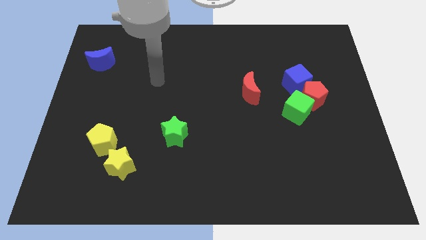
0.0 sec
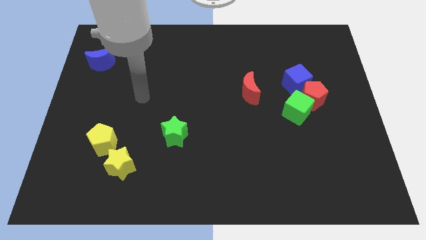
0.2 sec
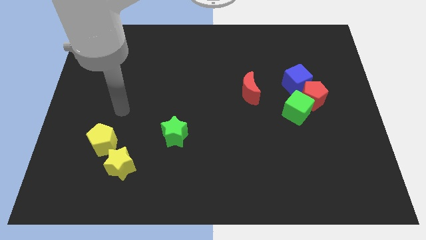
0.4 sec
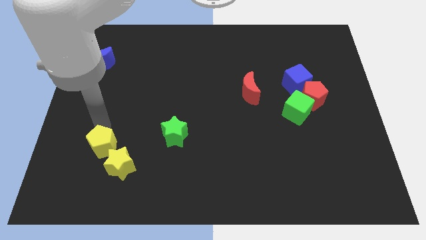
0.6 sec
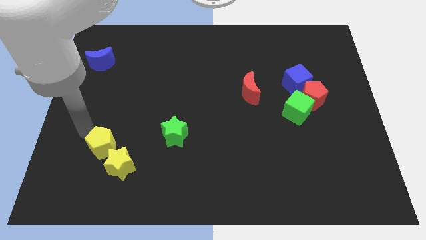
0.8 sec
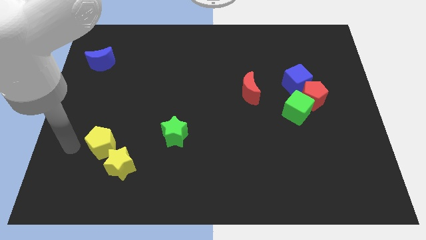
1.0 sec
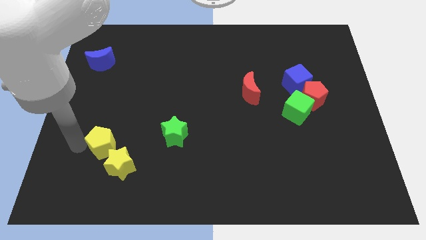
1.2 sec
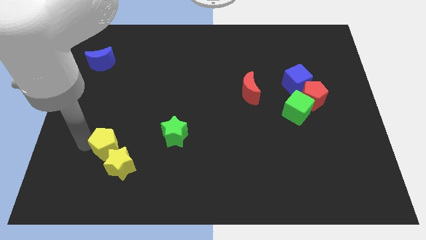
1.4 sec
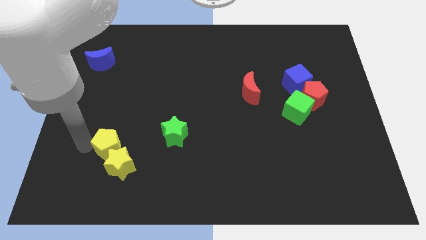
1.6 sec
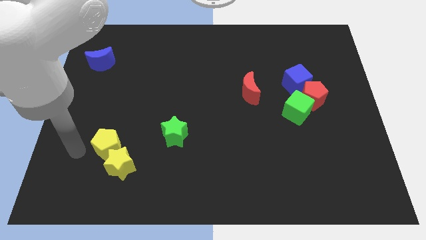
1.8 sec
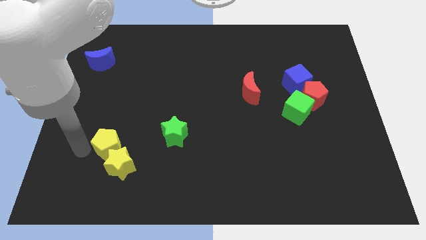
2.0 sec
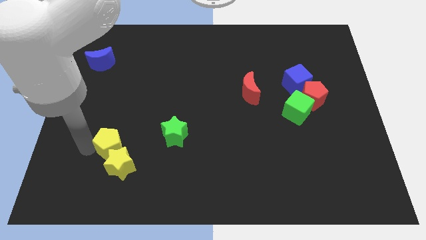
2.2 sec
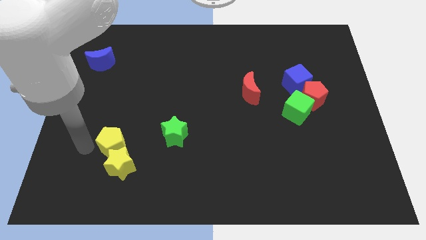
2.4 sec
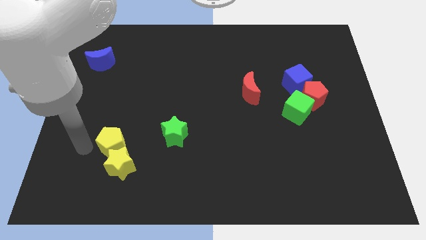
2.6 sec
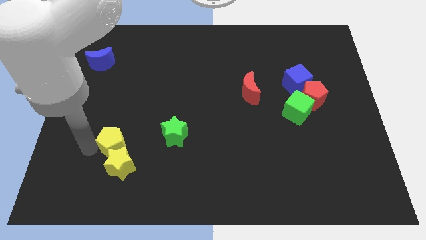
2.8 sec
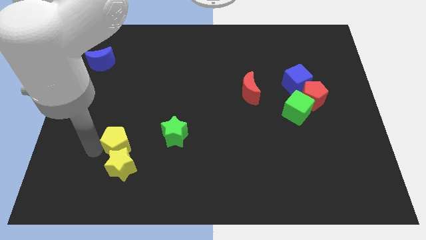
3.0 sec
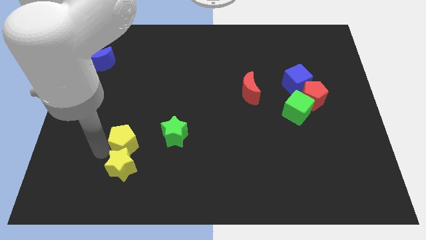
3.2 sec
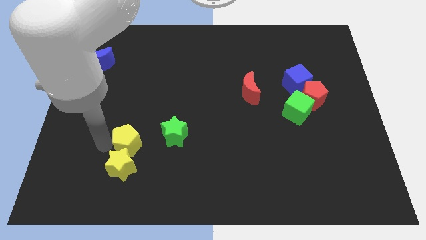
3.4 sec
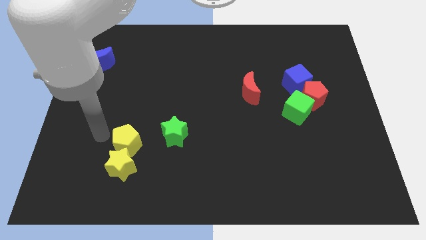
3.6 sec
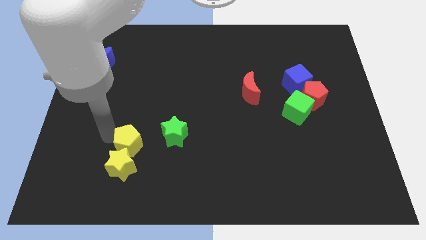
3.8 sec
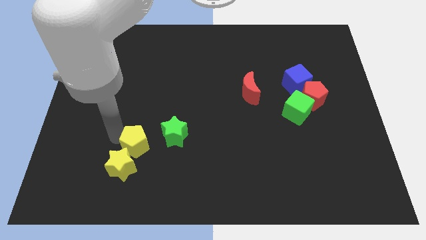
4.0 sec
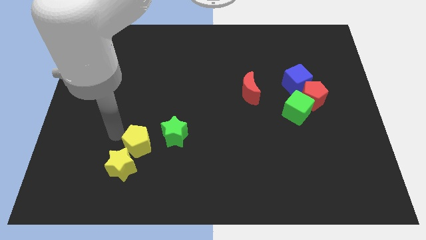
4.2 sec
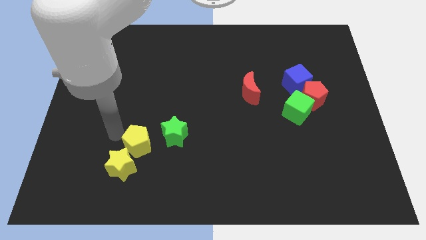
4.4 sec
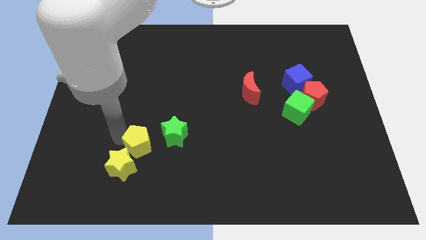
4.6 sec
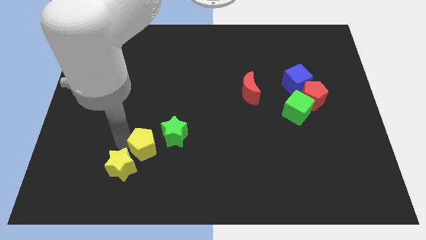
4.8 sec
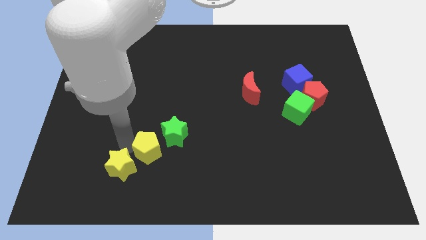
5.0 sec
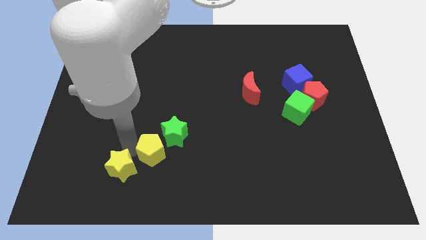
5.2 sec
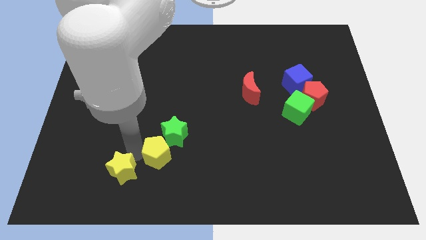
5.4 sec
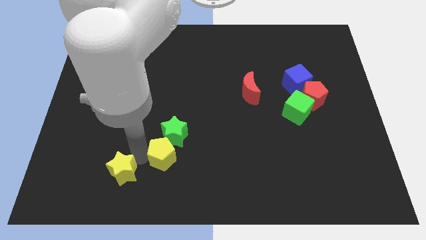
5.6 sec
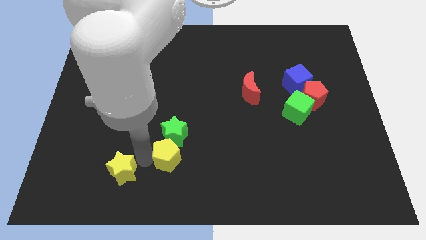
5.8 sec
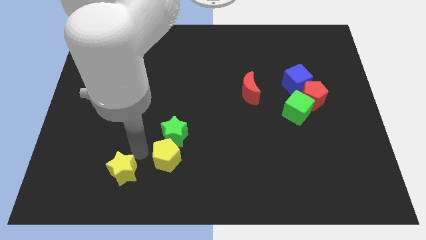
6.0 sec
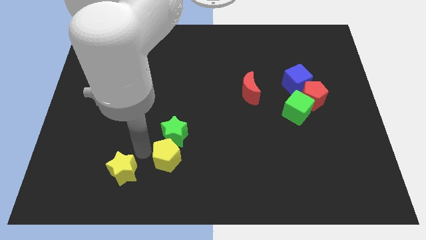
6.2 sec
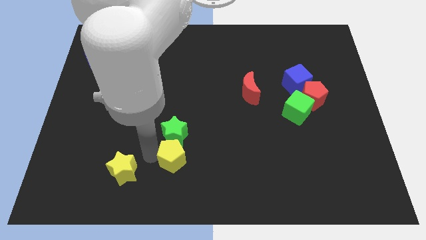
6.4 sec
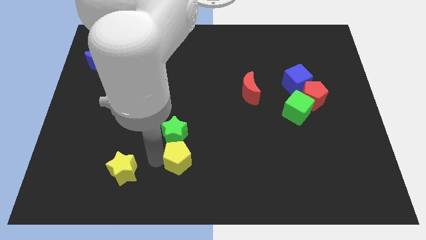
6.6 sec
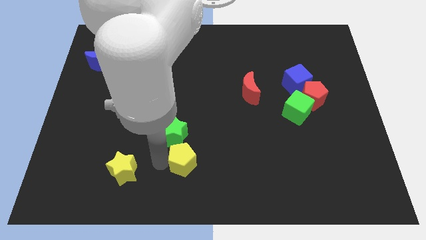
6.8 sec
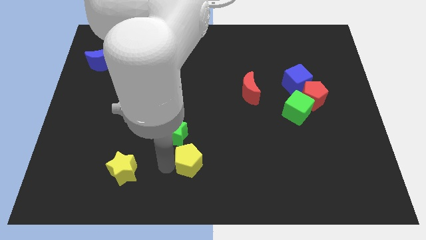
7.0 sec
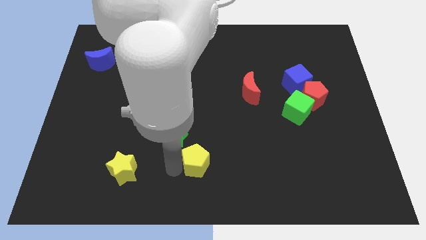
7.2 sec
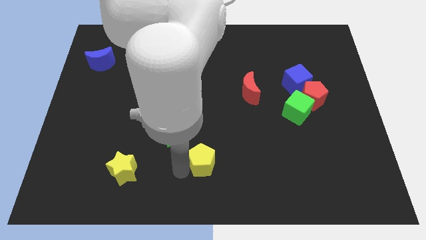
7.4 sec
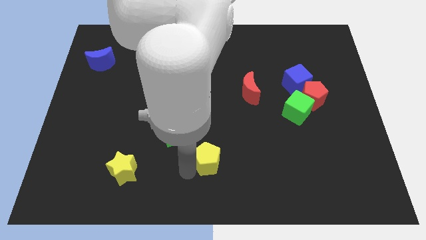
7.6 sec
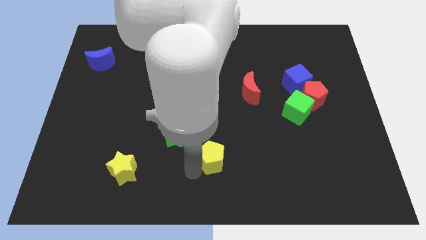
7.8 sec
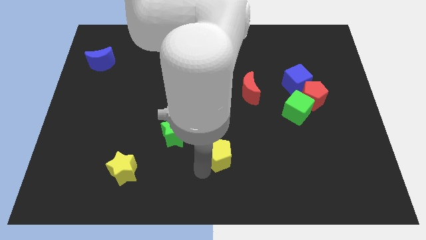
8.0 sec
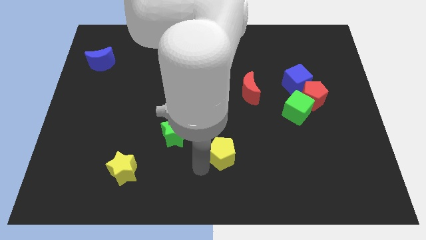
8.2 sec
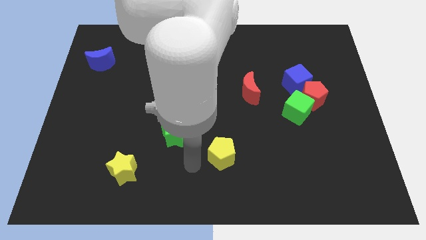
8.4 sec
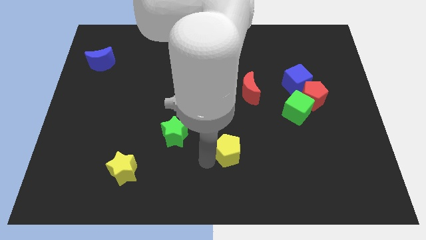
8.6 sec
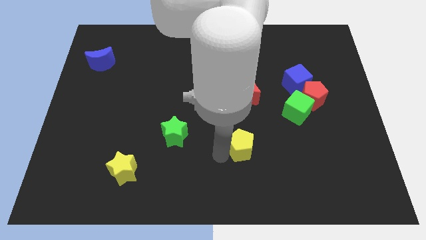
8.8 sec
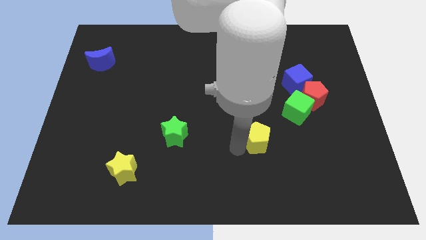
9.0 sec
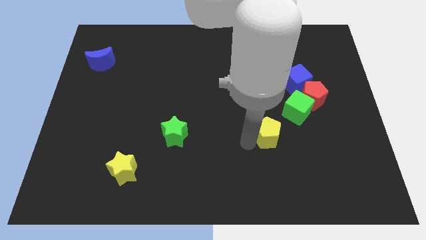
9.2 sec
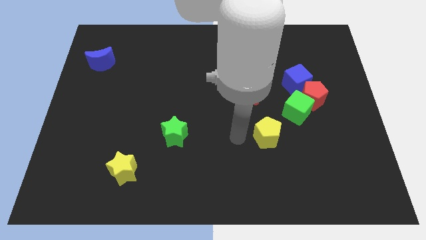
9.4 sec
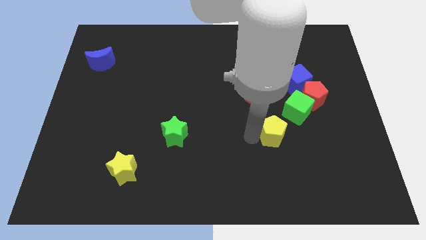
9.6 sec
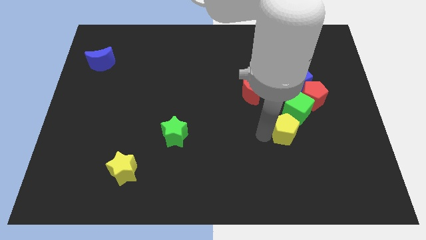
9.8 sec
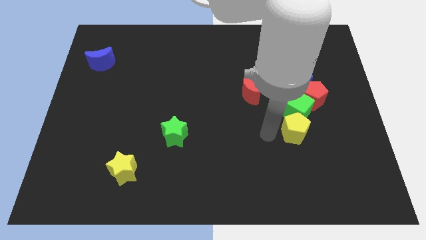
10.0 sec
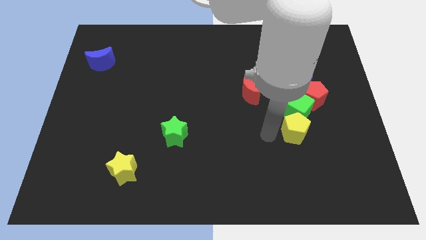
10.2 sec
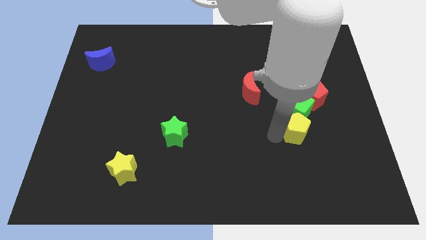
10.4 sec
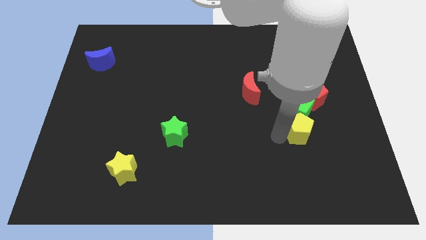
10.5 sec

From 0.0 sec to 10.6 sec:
put the yellow pentagon to the bottom right of the green cube

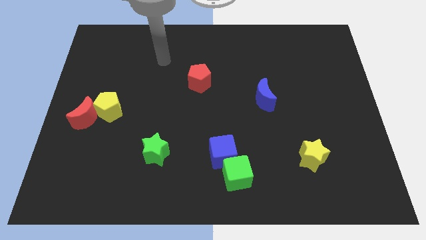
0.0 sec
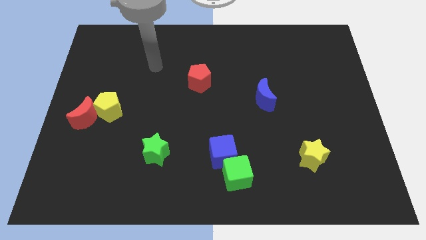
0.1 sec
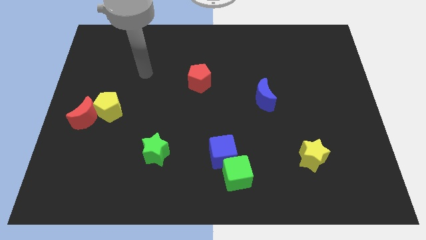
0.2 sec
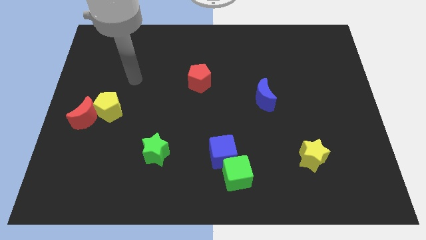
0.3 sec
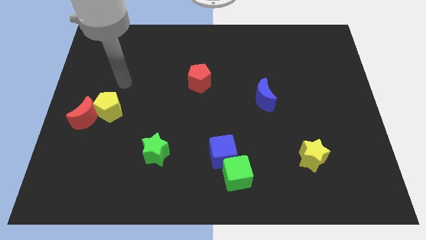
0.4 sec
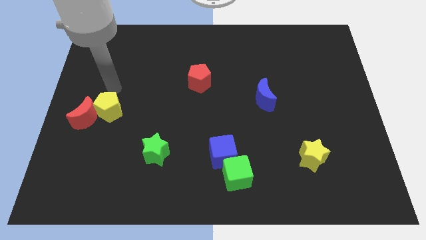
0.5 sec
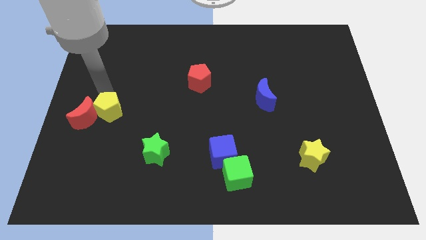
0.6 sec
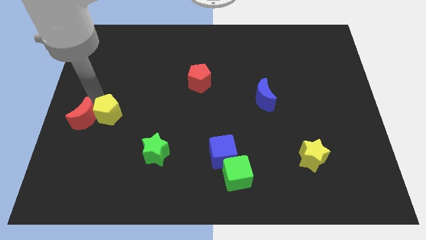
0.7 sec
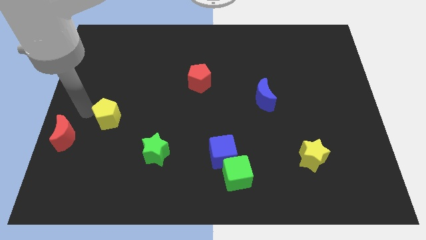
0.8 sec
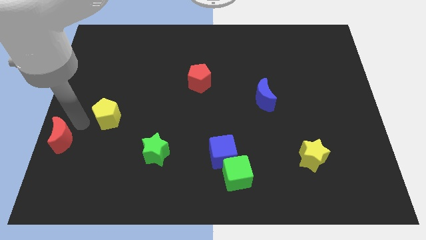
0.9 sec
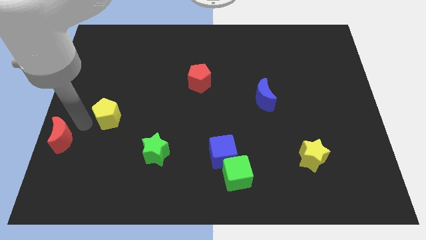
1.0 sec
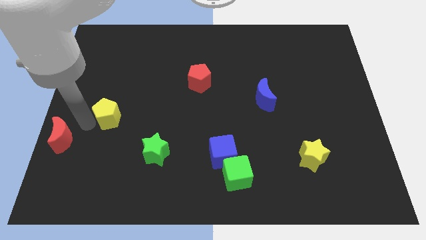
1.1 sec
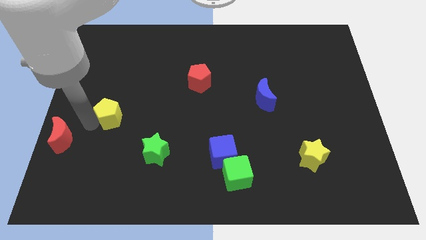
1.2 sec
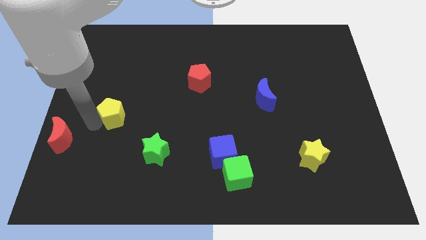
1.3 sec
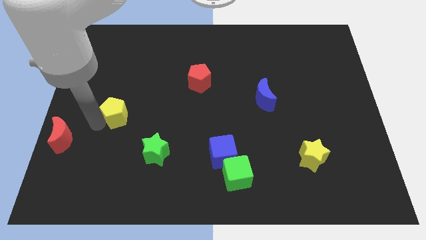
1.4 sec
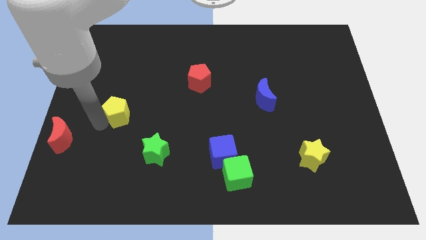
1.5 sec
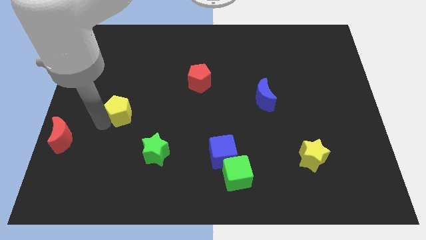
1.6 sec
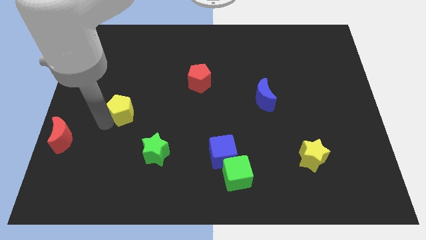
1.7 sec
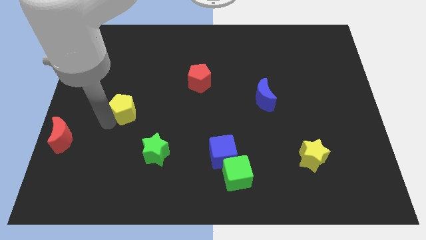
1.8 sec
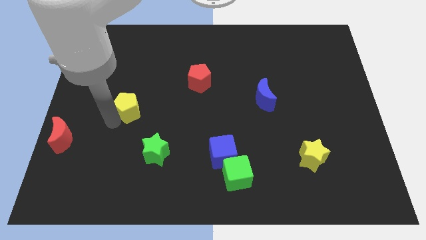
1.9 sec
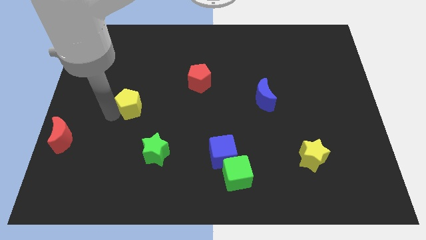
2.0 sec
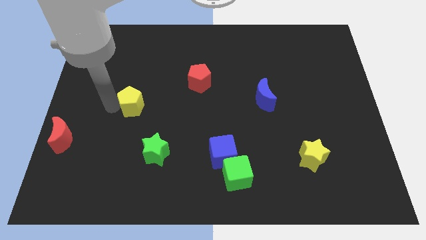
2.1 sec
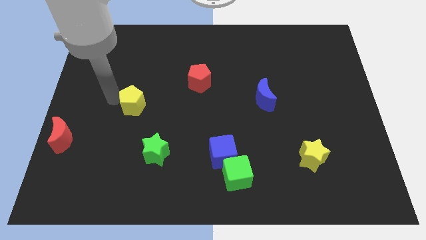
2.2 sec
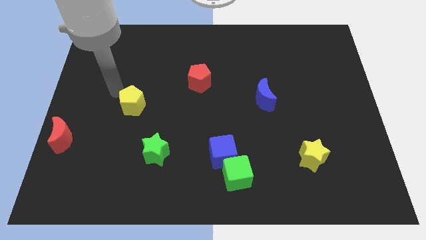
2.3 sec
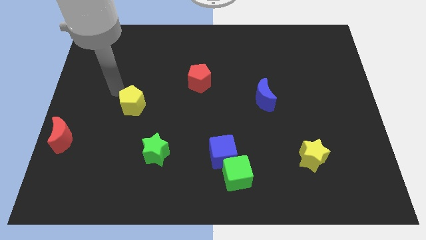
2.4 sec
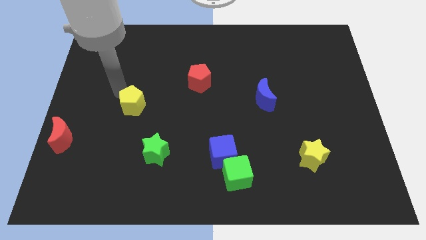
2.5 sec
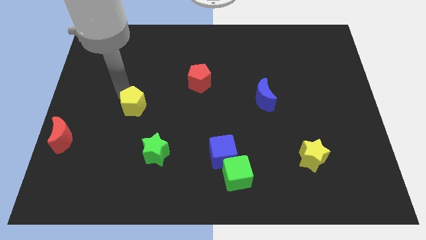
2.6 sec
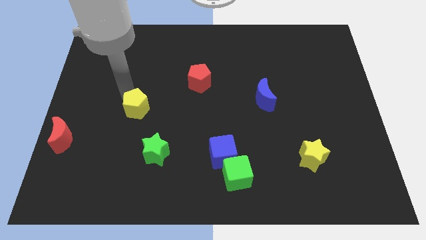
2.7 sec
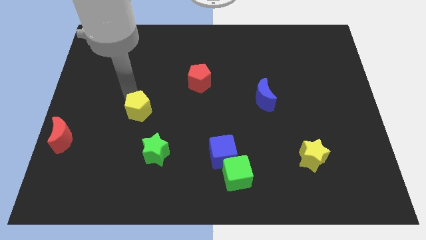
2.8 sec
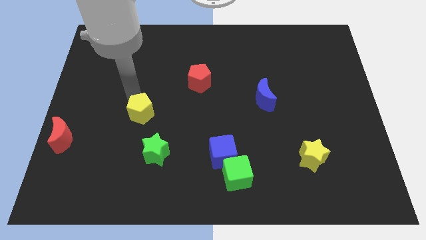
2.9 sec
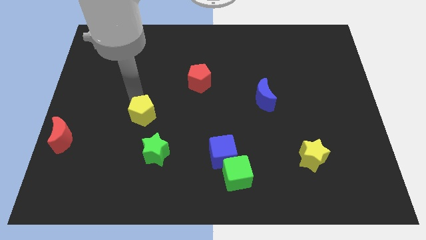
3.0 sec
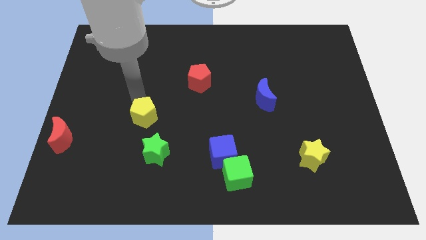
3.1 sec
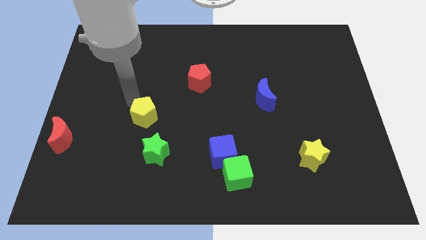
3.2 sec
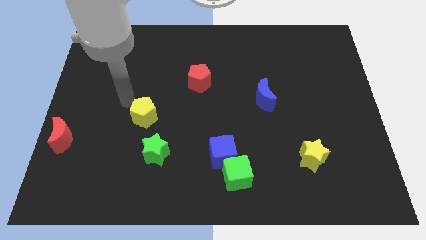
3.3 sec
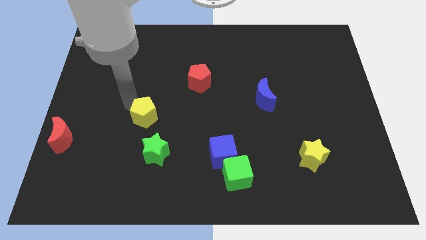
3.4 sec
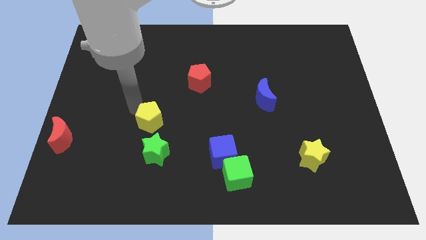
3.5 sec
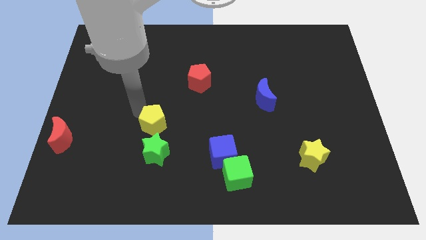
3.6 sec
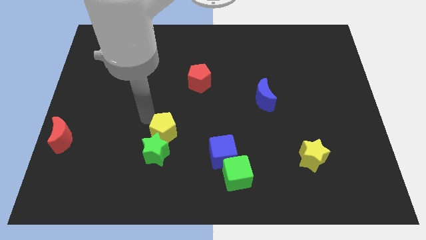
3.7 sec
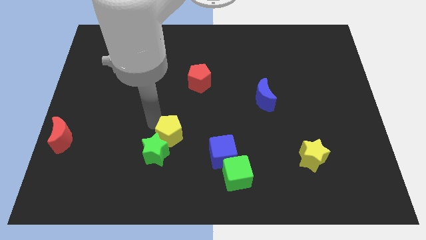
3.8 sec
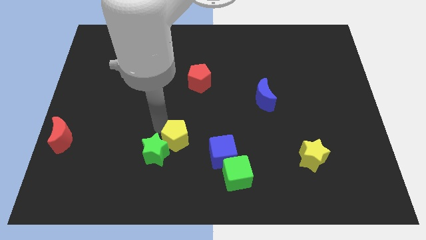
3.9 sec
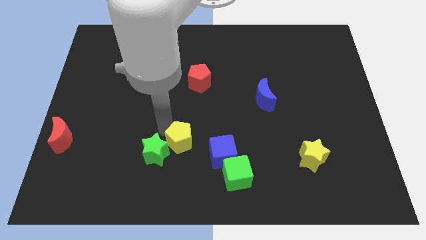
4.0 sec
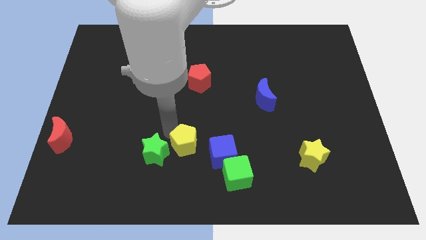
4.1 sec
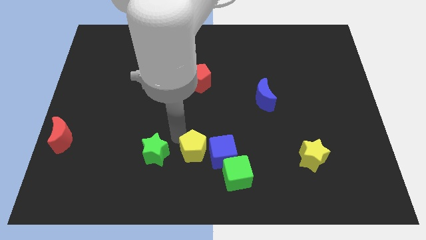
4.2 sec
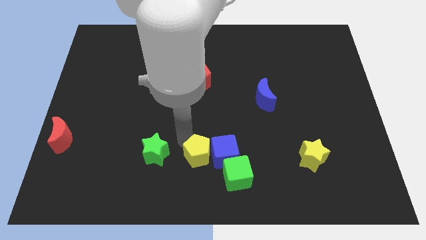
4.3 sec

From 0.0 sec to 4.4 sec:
push the yellow pentagon to the bottom left of the blue cube
